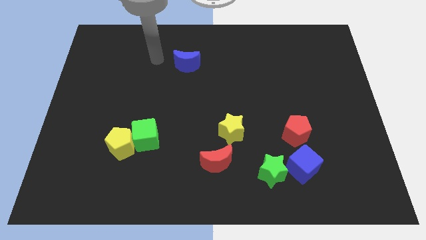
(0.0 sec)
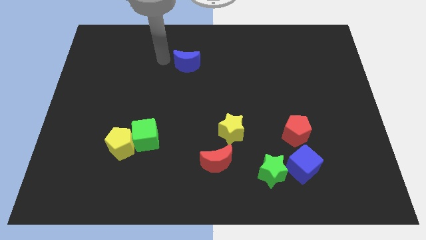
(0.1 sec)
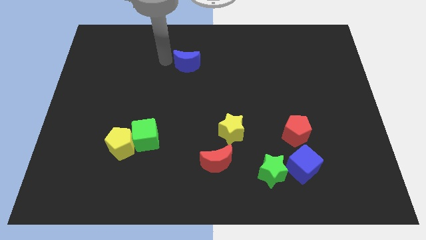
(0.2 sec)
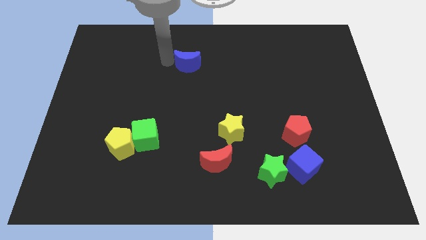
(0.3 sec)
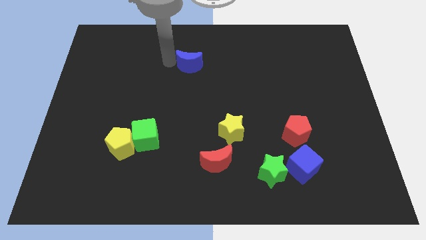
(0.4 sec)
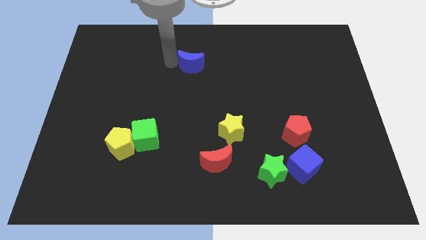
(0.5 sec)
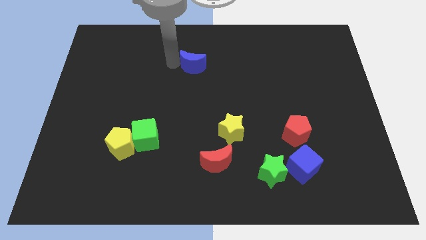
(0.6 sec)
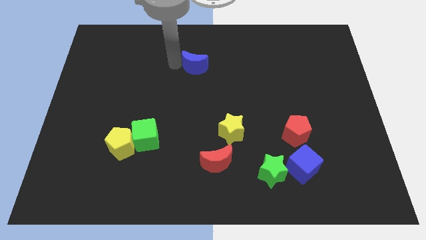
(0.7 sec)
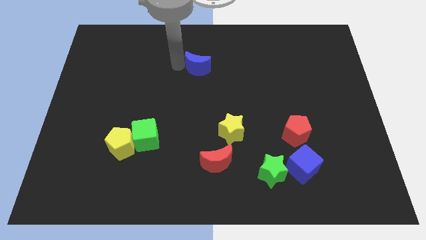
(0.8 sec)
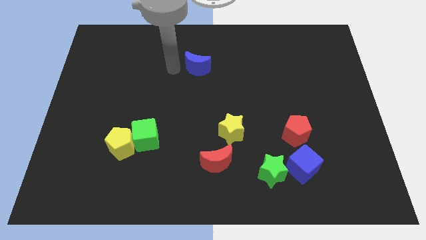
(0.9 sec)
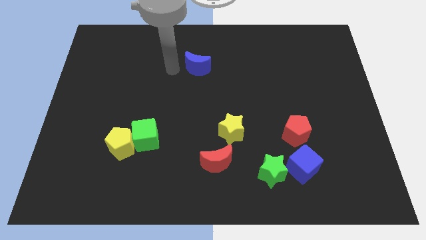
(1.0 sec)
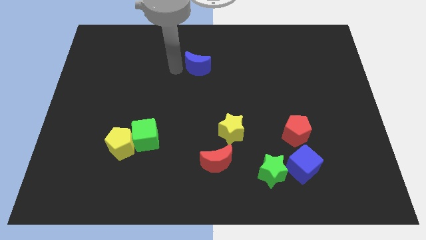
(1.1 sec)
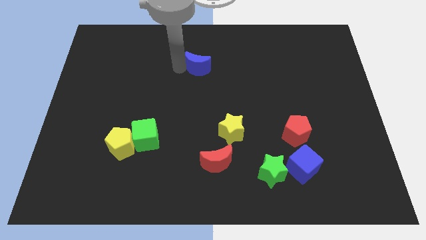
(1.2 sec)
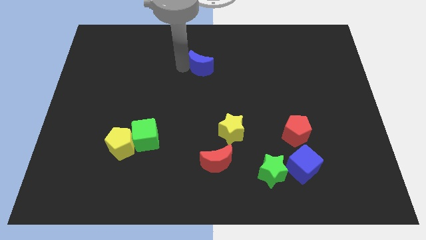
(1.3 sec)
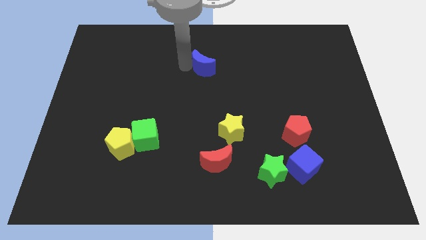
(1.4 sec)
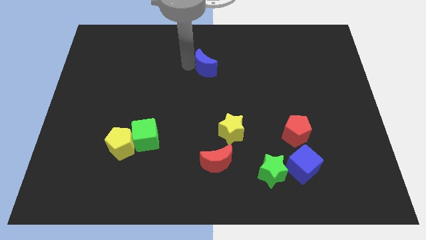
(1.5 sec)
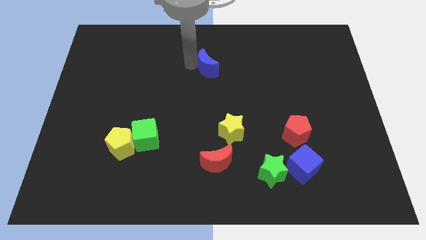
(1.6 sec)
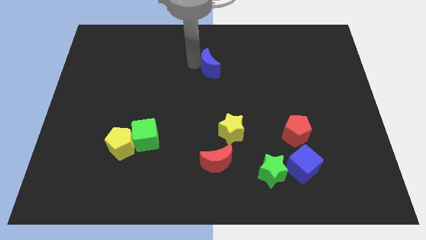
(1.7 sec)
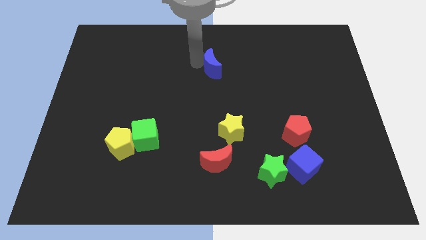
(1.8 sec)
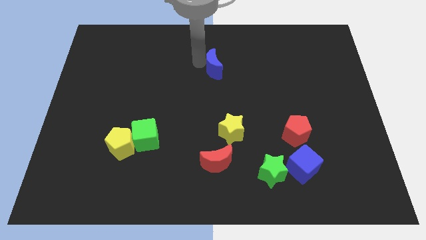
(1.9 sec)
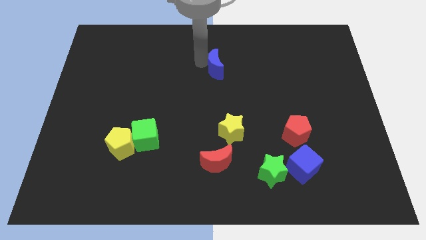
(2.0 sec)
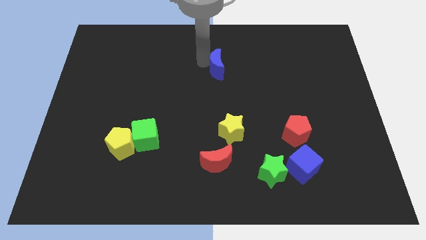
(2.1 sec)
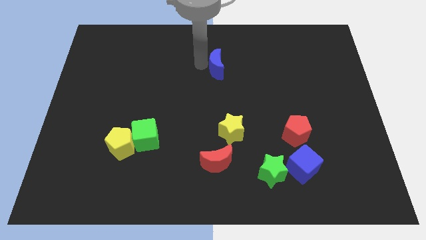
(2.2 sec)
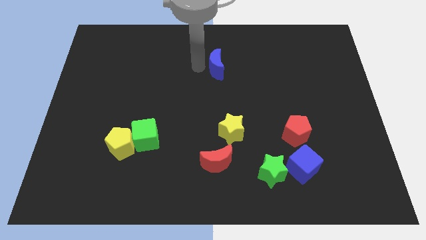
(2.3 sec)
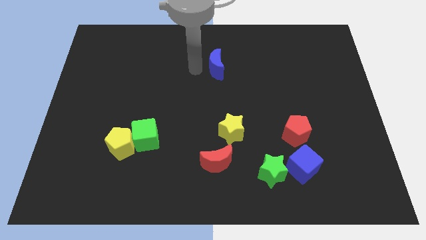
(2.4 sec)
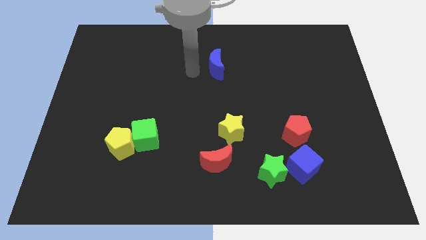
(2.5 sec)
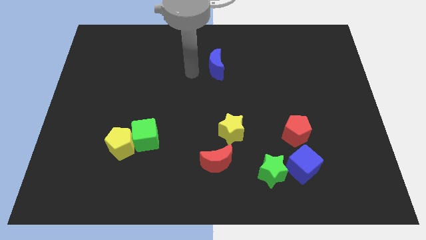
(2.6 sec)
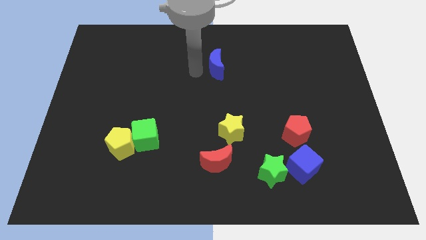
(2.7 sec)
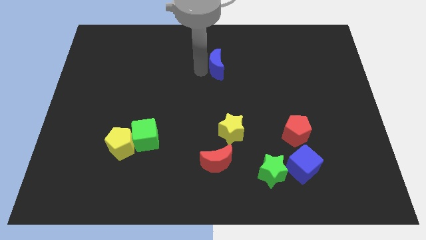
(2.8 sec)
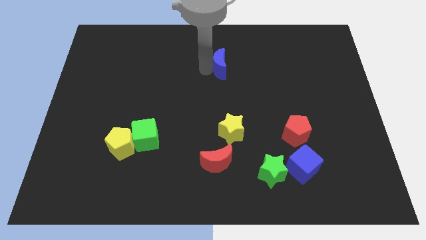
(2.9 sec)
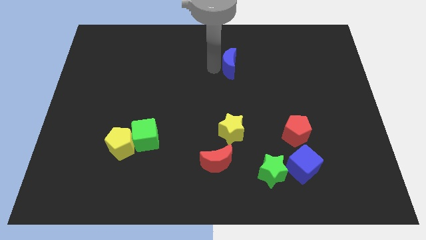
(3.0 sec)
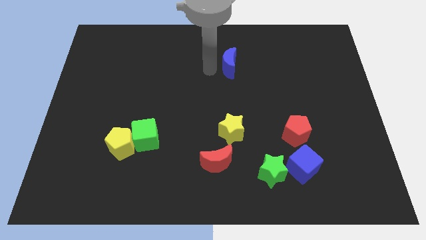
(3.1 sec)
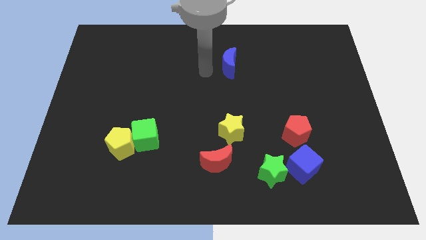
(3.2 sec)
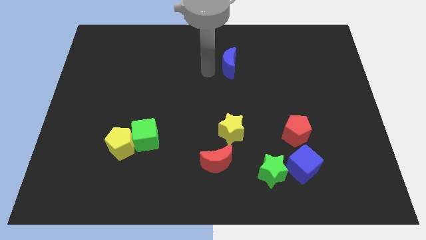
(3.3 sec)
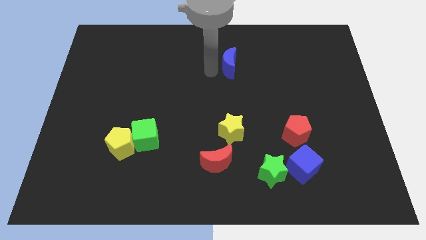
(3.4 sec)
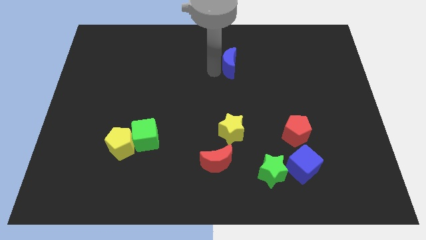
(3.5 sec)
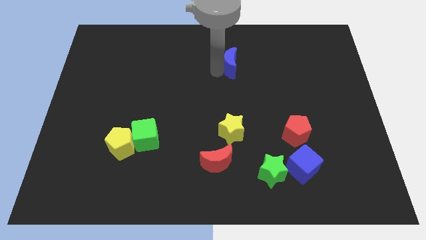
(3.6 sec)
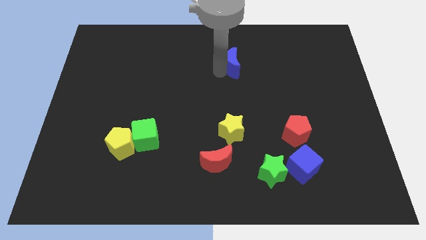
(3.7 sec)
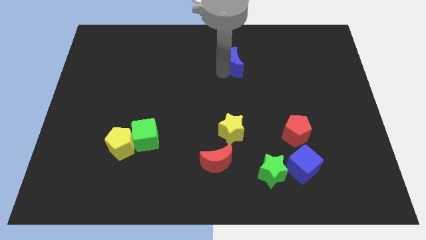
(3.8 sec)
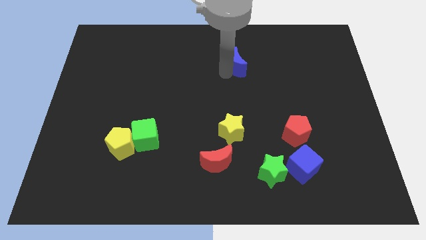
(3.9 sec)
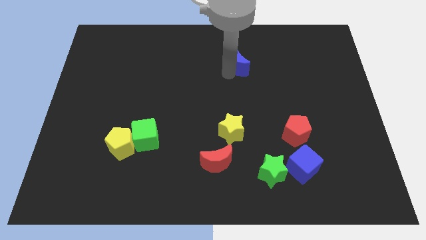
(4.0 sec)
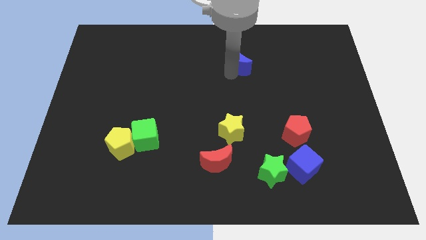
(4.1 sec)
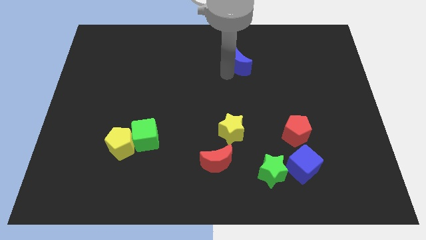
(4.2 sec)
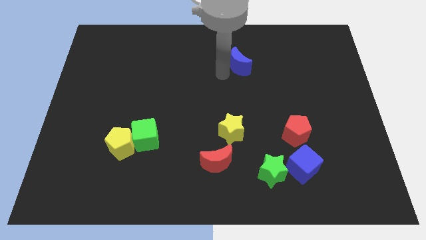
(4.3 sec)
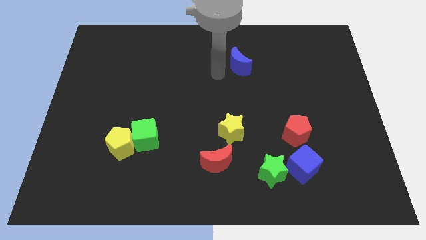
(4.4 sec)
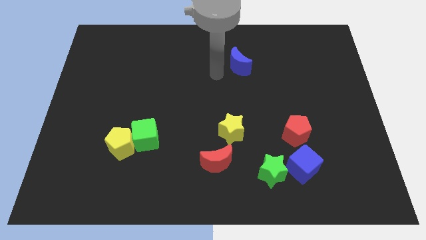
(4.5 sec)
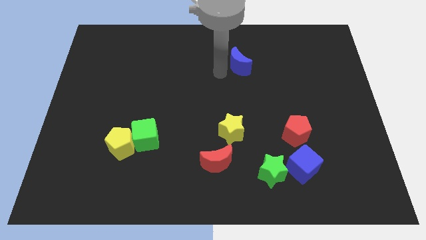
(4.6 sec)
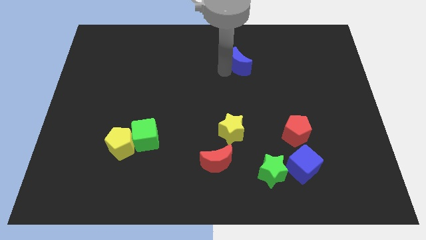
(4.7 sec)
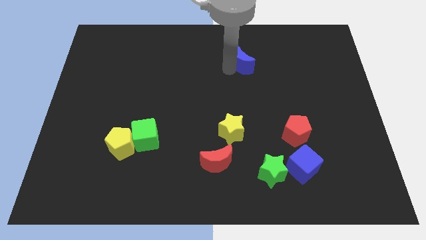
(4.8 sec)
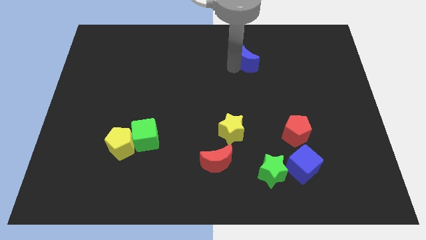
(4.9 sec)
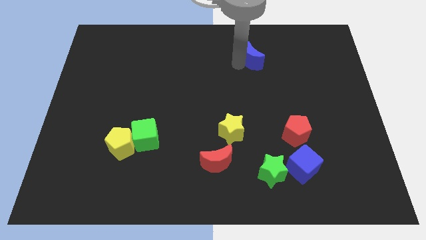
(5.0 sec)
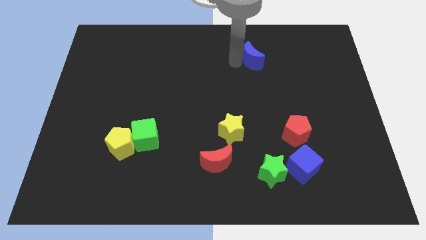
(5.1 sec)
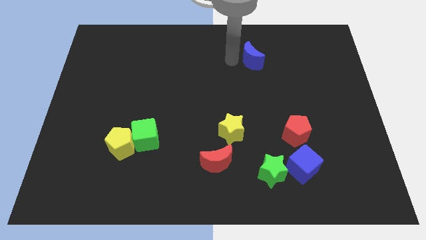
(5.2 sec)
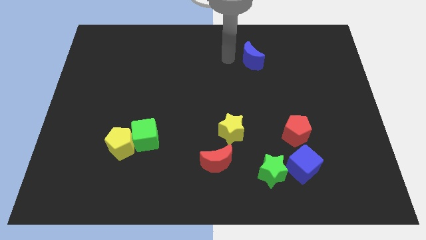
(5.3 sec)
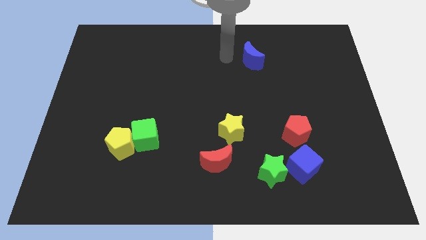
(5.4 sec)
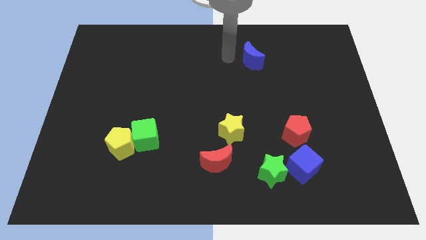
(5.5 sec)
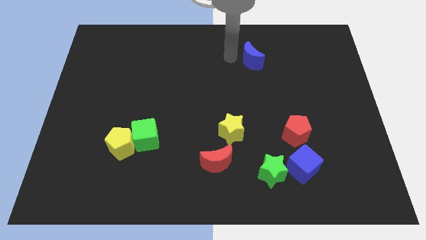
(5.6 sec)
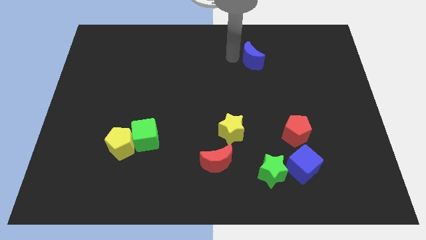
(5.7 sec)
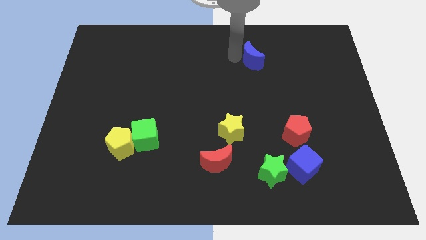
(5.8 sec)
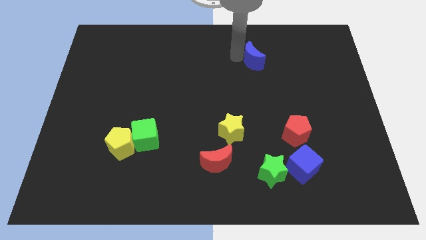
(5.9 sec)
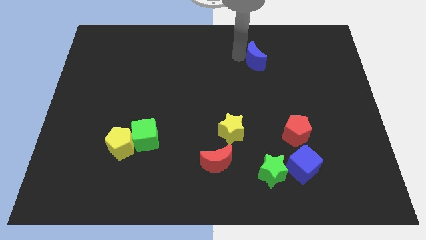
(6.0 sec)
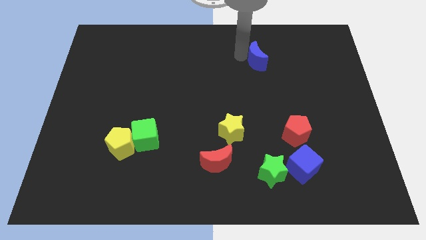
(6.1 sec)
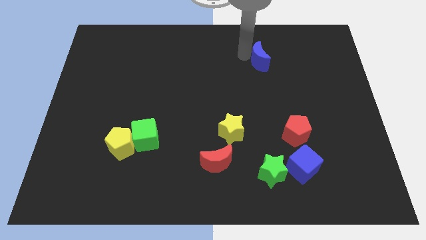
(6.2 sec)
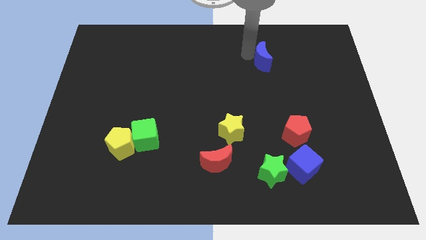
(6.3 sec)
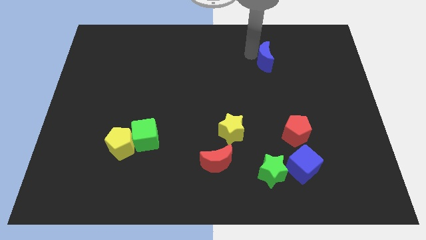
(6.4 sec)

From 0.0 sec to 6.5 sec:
slide the blue moon right

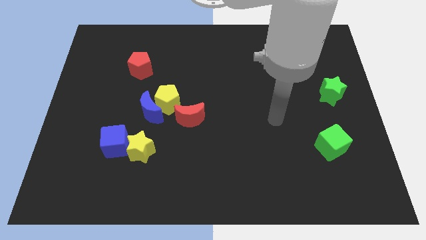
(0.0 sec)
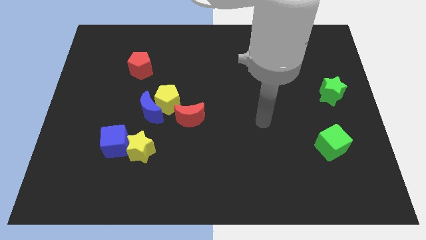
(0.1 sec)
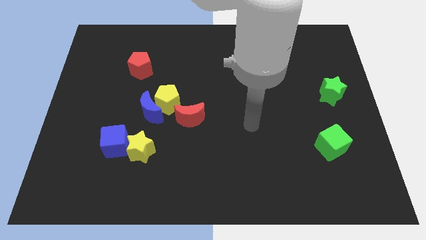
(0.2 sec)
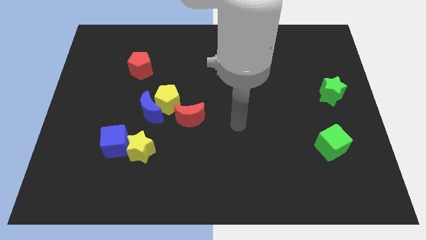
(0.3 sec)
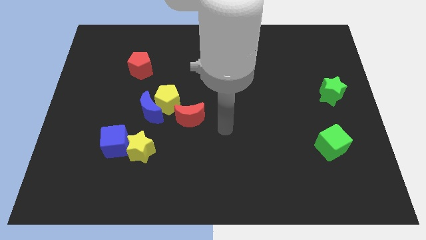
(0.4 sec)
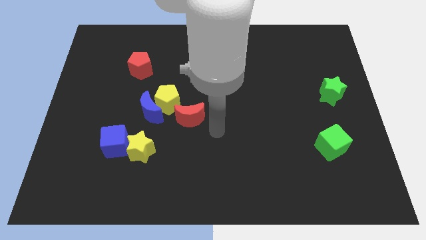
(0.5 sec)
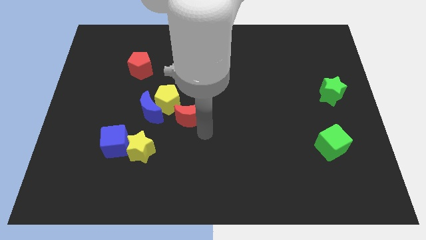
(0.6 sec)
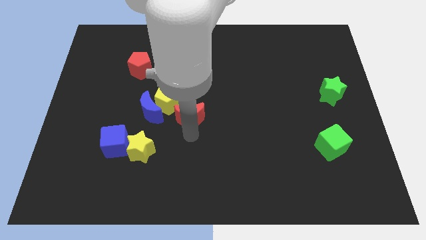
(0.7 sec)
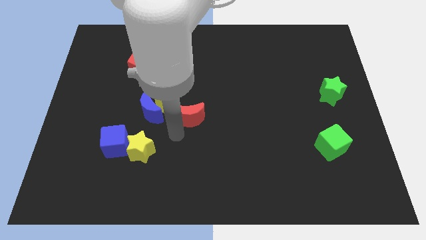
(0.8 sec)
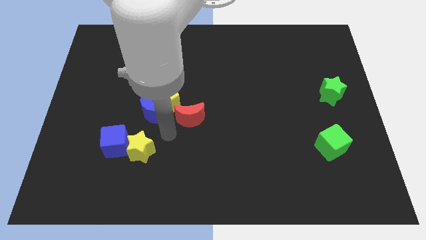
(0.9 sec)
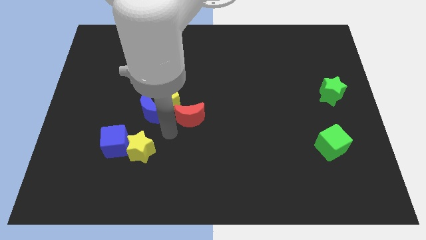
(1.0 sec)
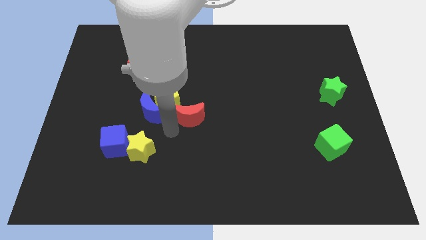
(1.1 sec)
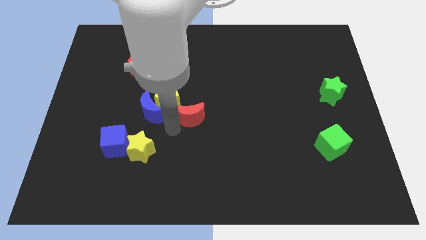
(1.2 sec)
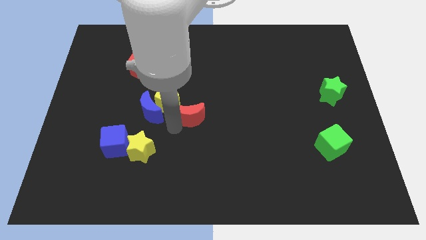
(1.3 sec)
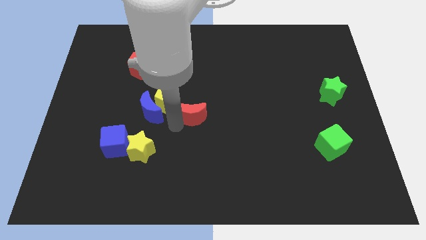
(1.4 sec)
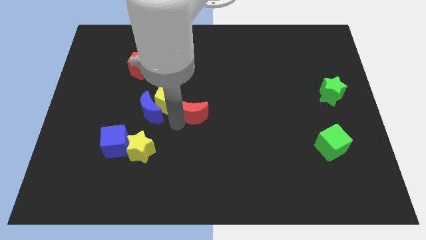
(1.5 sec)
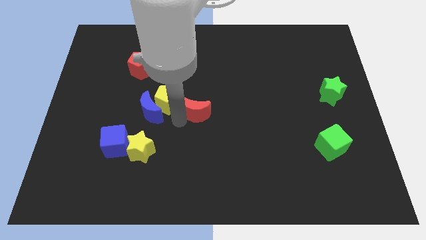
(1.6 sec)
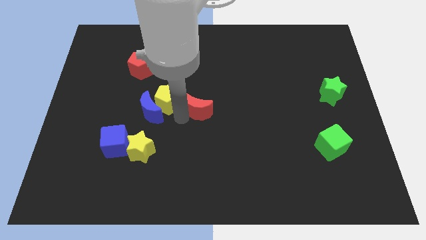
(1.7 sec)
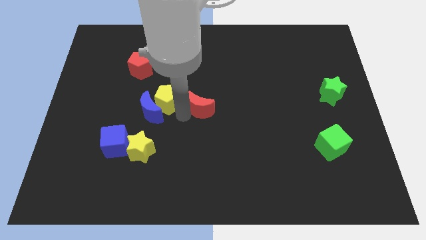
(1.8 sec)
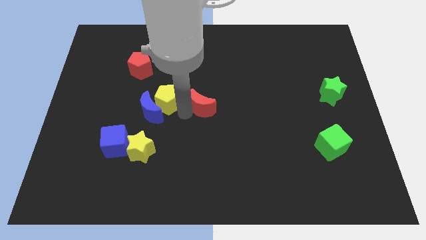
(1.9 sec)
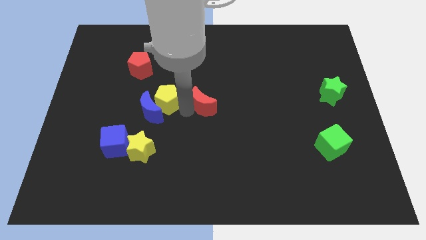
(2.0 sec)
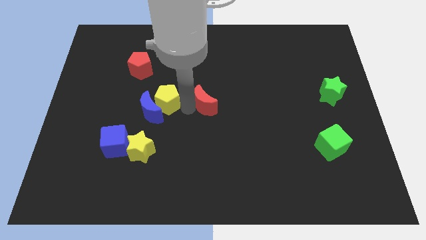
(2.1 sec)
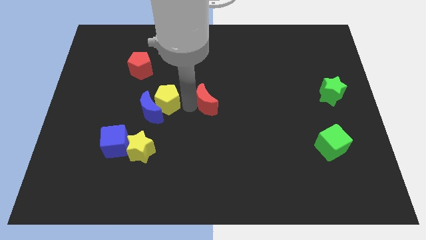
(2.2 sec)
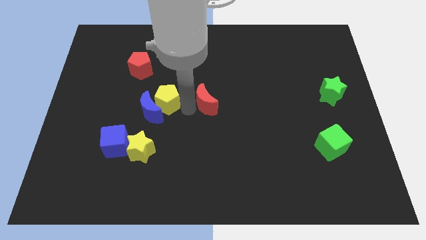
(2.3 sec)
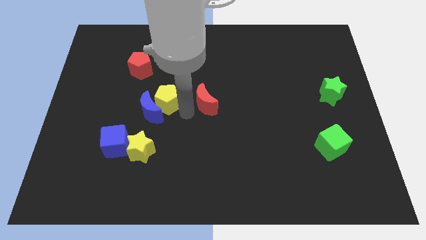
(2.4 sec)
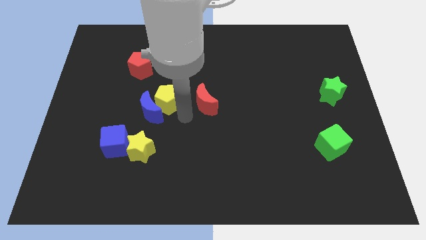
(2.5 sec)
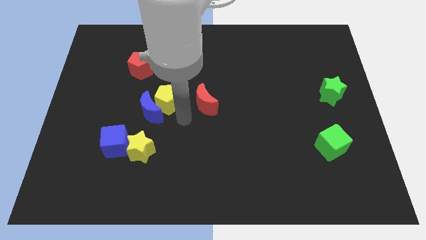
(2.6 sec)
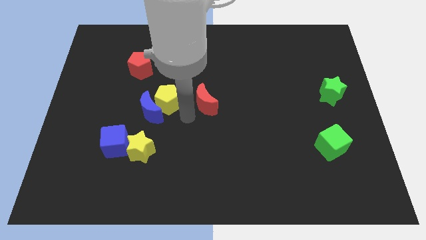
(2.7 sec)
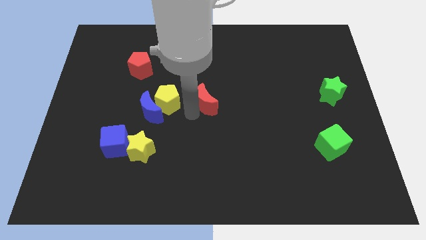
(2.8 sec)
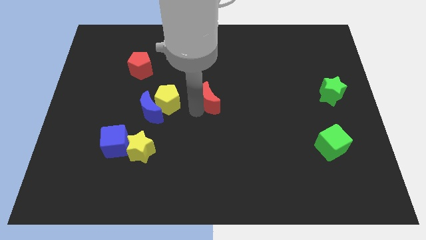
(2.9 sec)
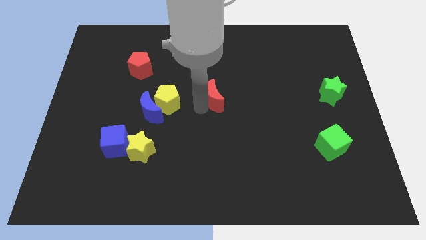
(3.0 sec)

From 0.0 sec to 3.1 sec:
slightly move the red moon upwards and right
